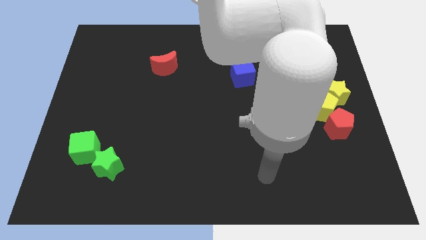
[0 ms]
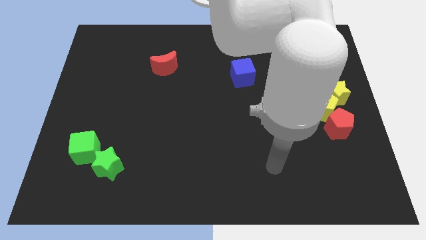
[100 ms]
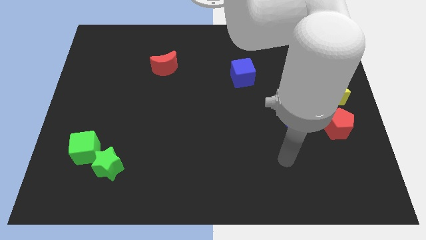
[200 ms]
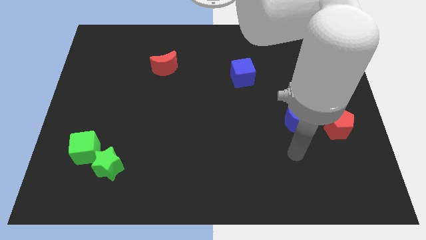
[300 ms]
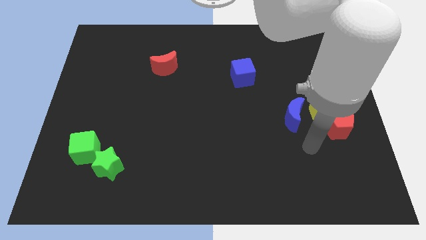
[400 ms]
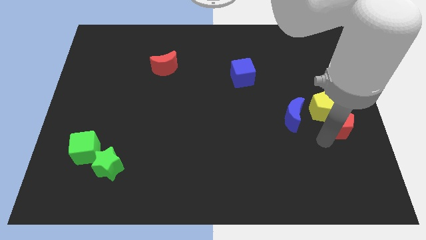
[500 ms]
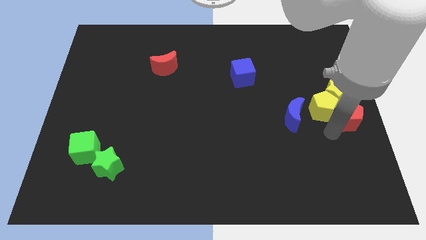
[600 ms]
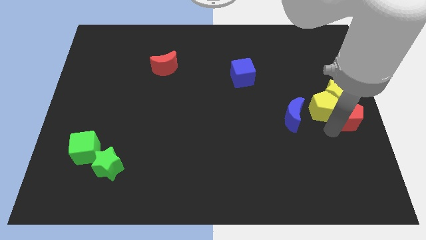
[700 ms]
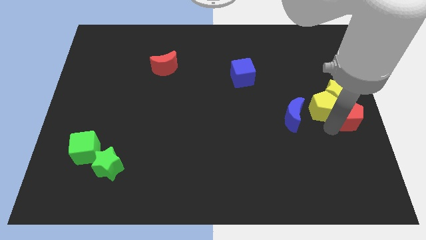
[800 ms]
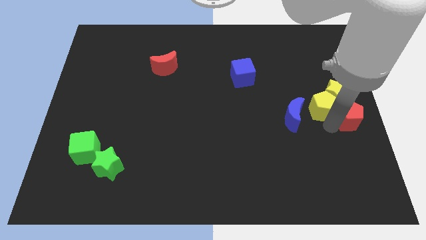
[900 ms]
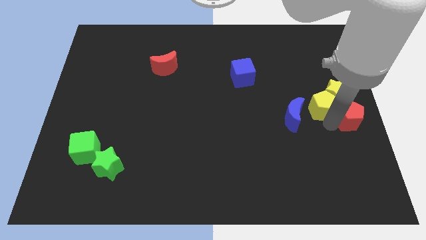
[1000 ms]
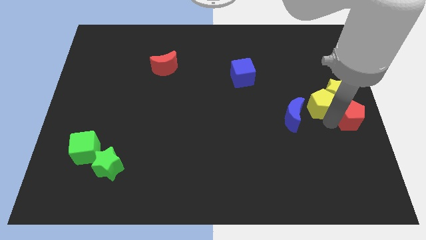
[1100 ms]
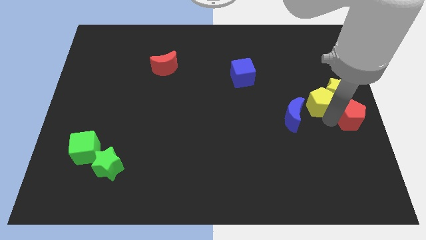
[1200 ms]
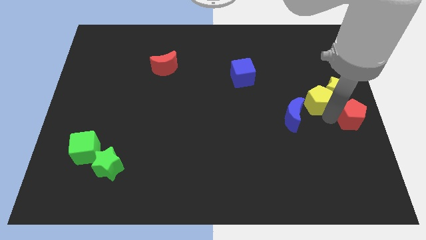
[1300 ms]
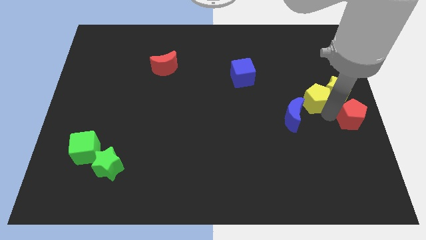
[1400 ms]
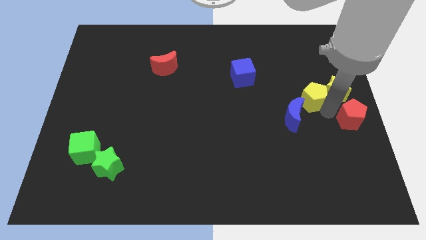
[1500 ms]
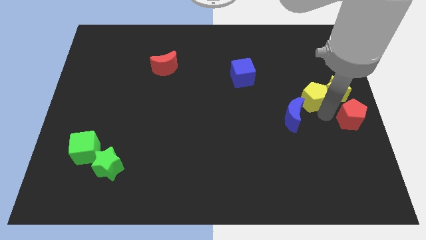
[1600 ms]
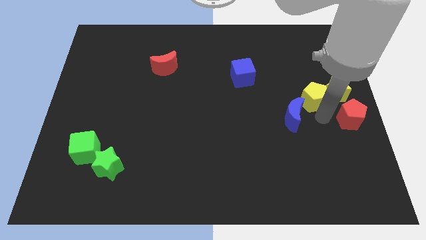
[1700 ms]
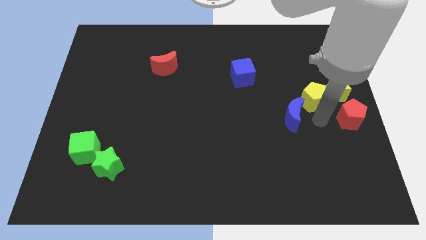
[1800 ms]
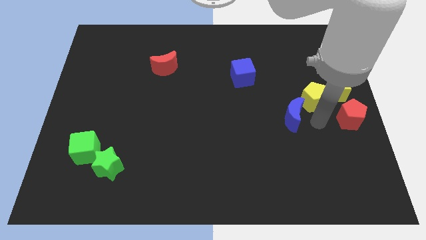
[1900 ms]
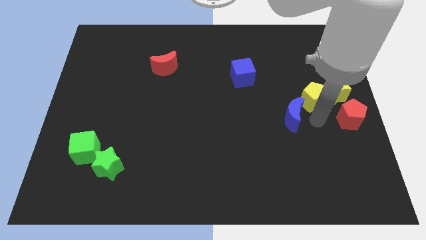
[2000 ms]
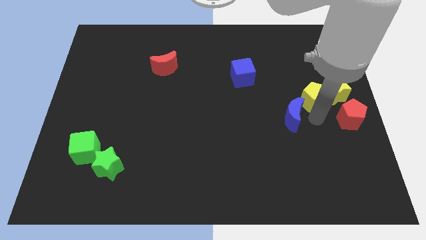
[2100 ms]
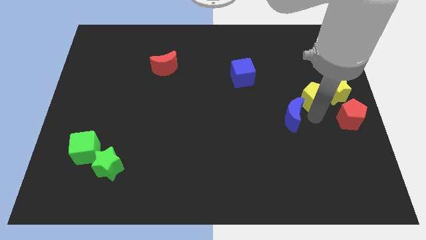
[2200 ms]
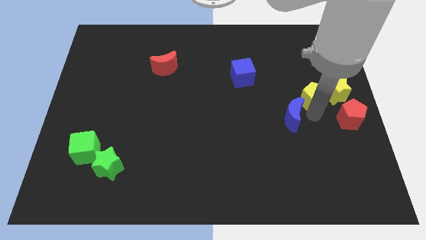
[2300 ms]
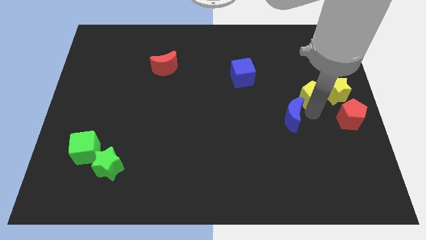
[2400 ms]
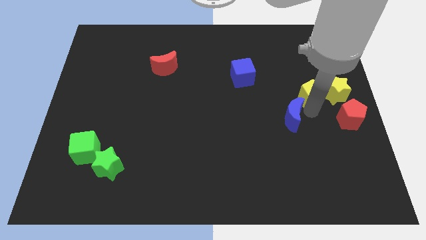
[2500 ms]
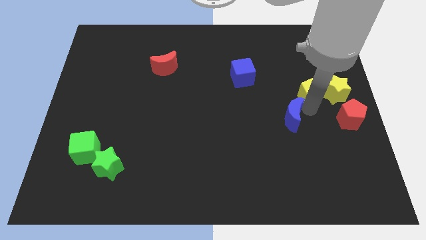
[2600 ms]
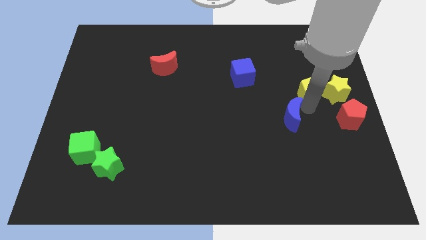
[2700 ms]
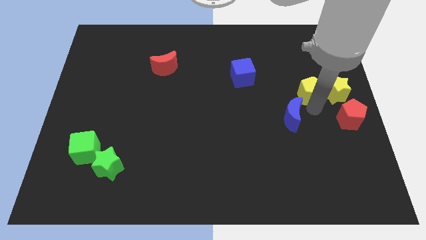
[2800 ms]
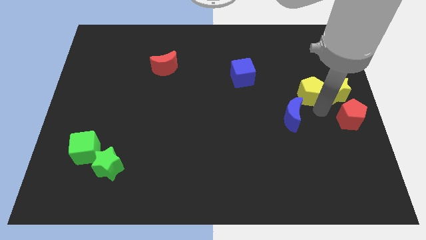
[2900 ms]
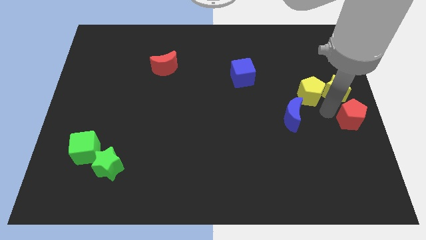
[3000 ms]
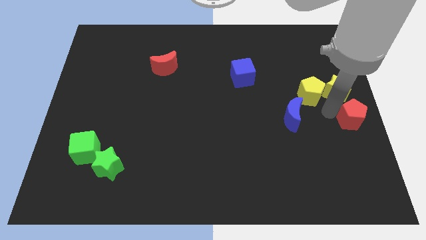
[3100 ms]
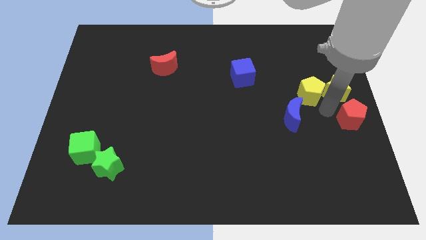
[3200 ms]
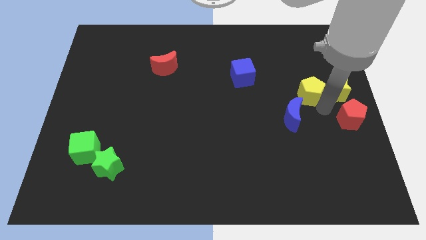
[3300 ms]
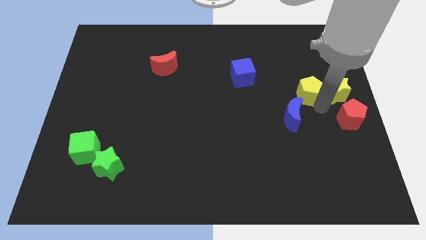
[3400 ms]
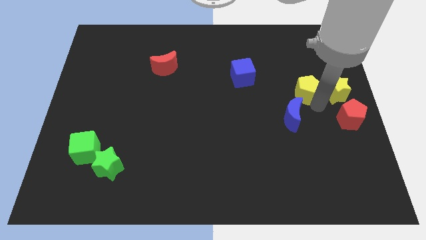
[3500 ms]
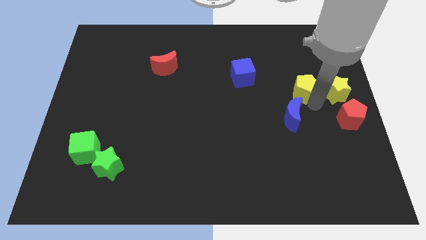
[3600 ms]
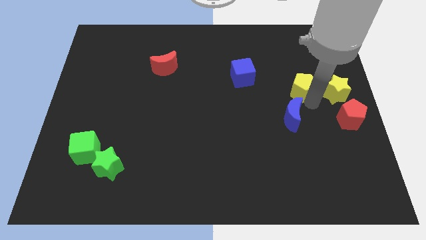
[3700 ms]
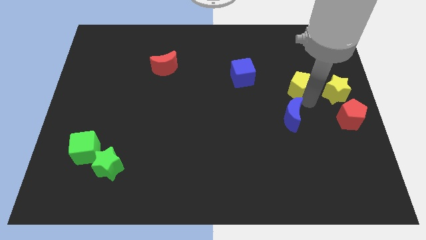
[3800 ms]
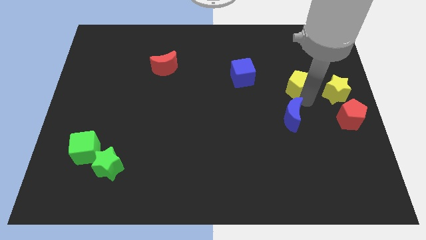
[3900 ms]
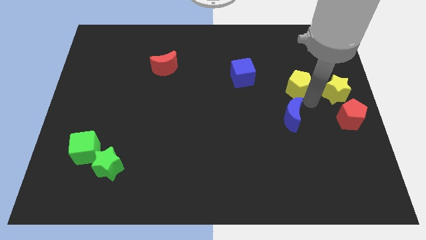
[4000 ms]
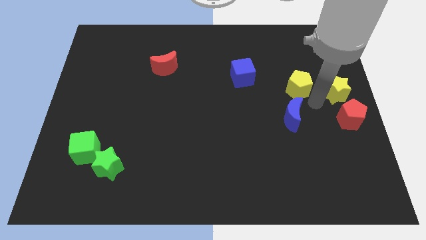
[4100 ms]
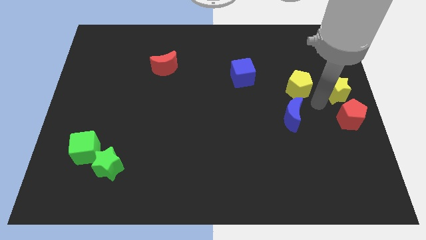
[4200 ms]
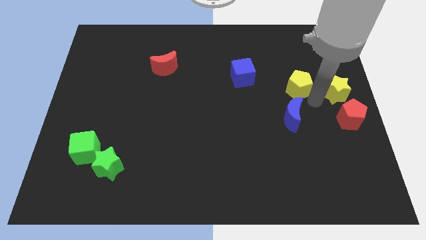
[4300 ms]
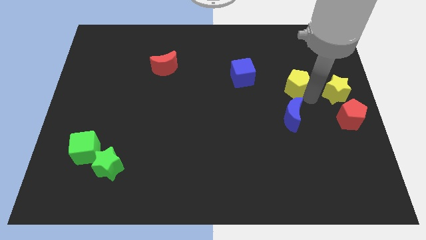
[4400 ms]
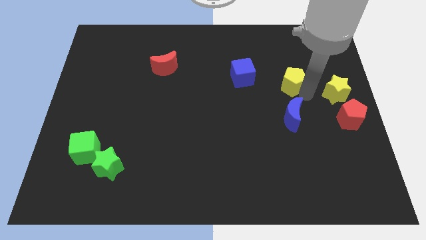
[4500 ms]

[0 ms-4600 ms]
move the yellow pentagon away from the yellow star, red pentagon, and blue moon

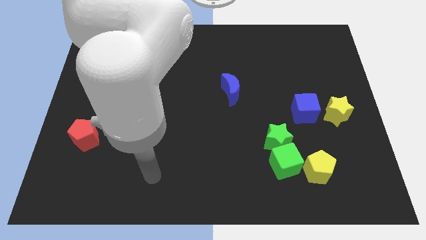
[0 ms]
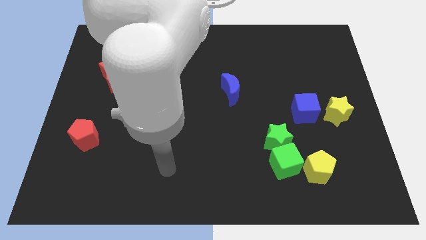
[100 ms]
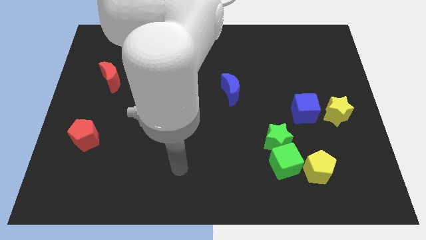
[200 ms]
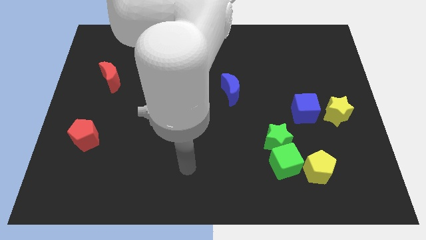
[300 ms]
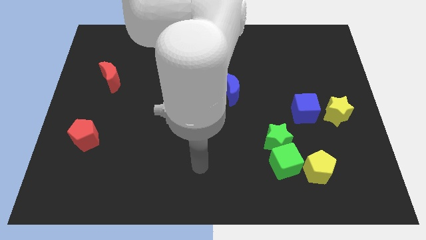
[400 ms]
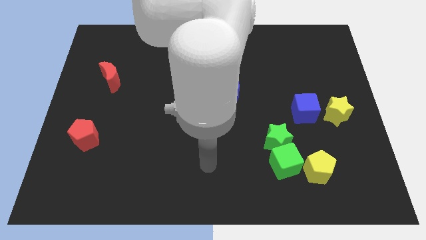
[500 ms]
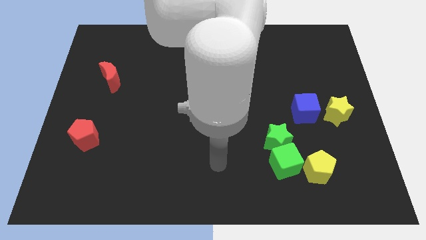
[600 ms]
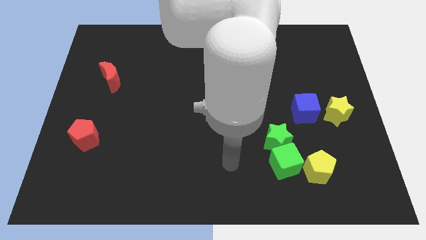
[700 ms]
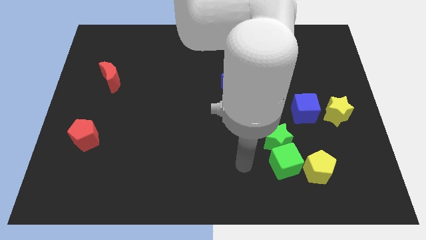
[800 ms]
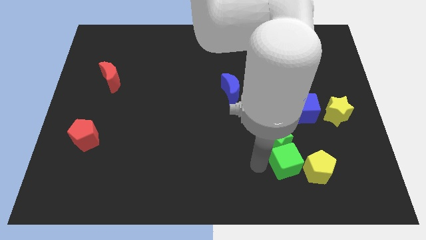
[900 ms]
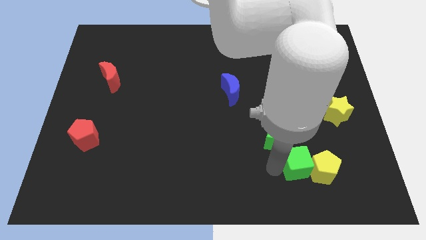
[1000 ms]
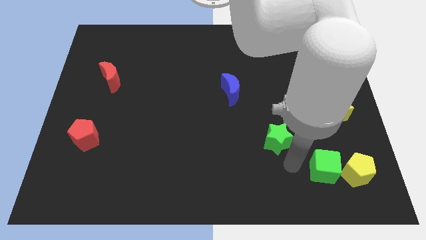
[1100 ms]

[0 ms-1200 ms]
pull the green star apart from the green cube

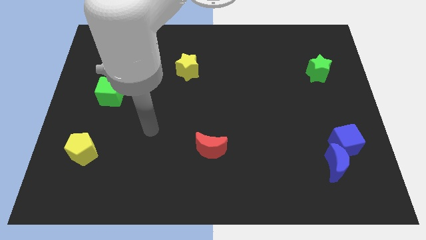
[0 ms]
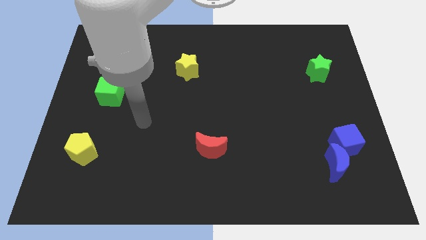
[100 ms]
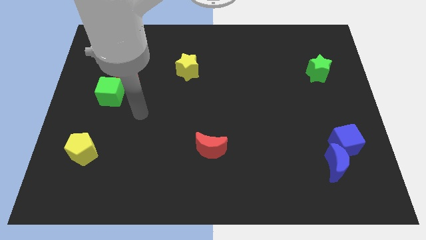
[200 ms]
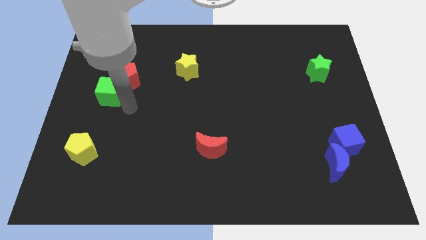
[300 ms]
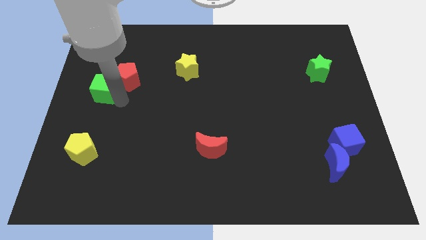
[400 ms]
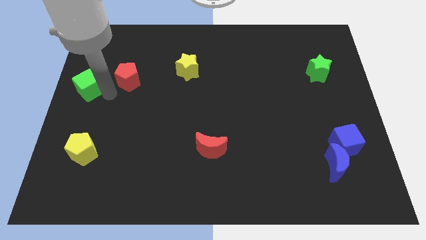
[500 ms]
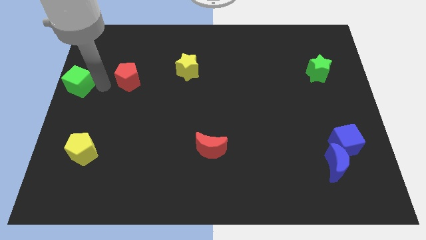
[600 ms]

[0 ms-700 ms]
move the red pentagon away from the green cube

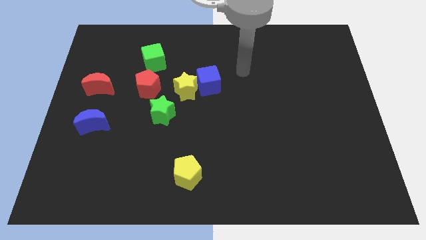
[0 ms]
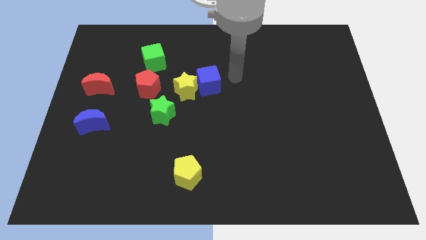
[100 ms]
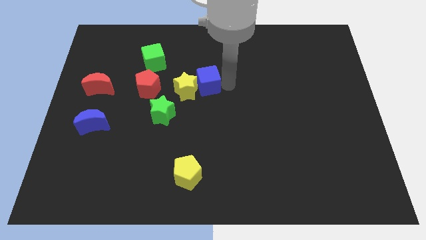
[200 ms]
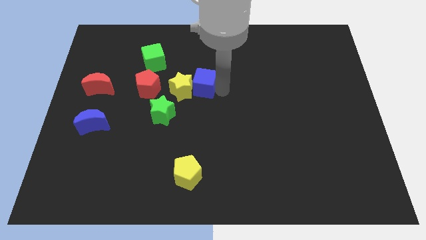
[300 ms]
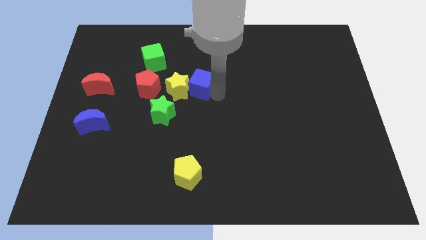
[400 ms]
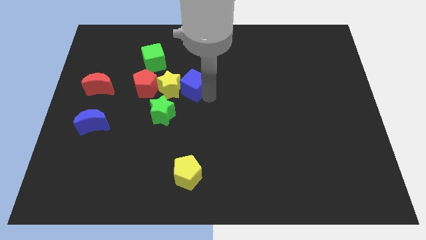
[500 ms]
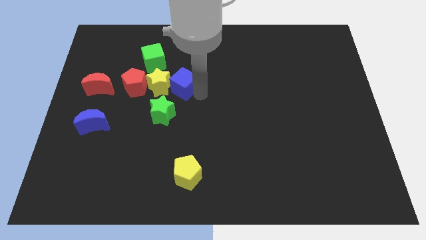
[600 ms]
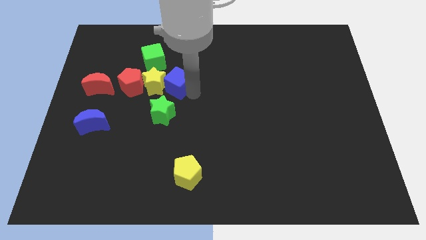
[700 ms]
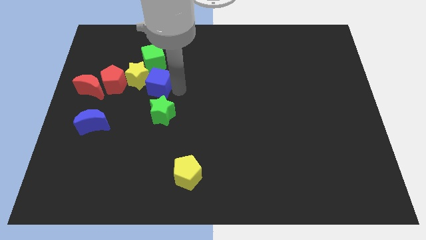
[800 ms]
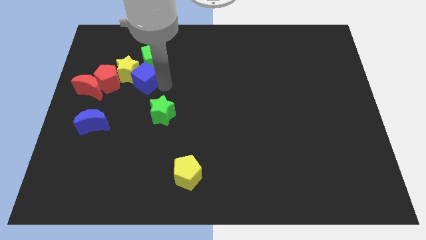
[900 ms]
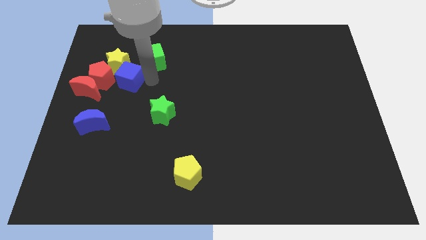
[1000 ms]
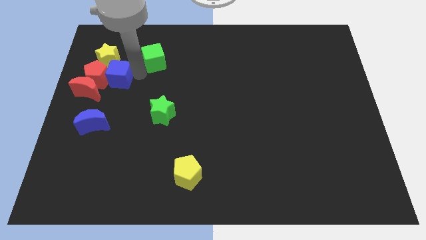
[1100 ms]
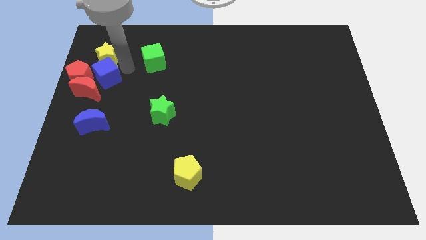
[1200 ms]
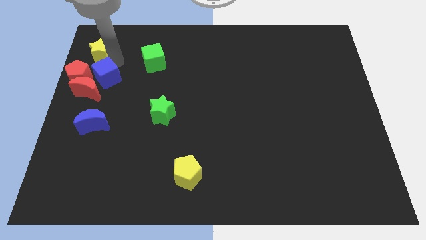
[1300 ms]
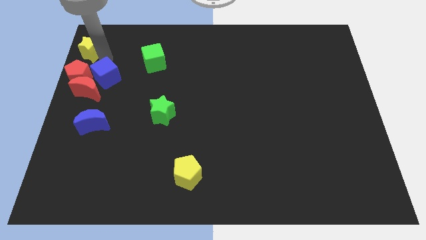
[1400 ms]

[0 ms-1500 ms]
separate the blue cube from the yellow star

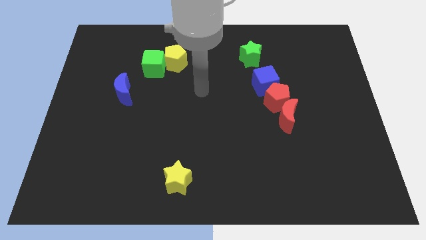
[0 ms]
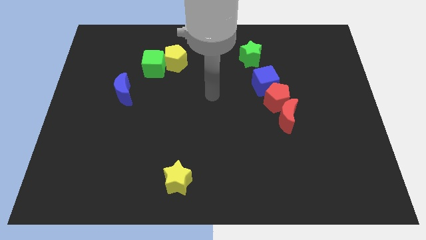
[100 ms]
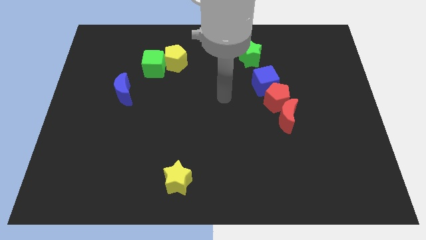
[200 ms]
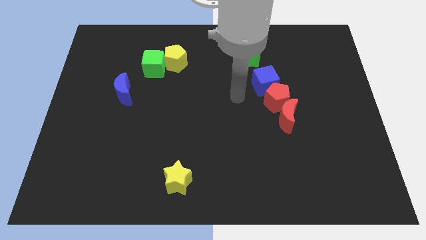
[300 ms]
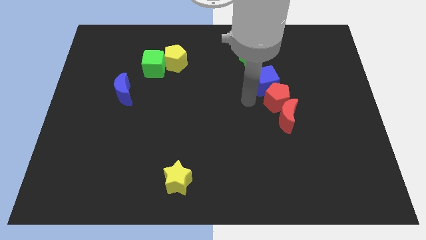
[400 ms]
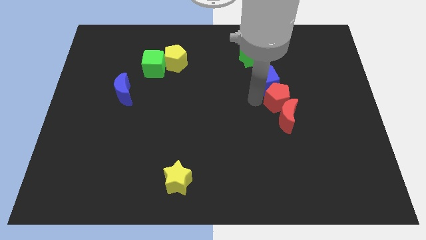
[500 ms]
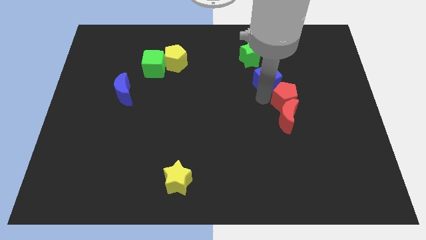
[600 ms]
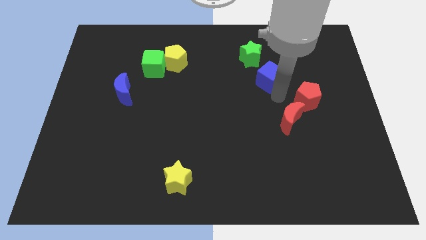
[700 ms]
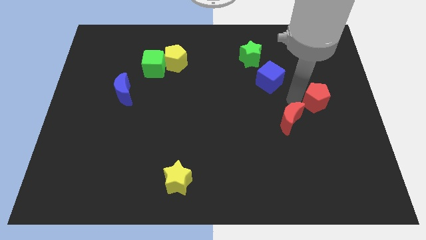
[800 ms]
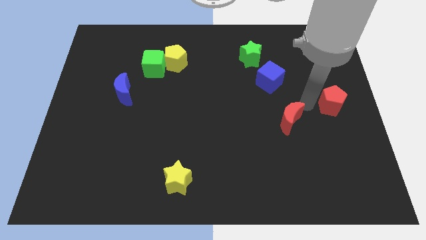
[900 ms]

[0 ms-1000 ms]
separate the red moon from the red pentagon

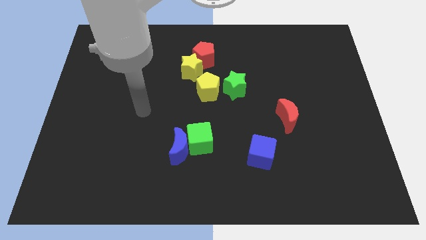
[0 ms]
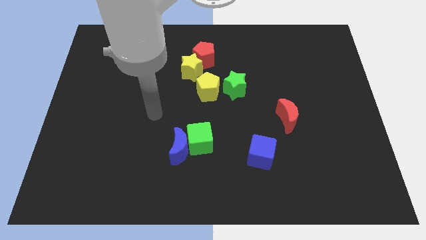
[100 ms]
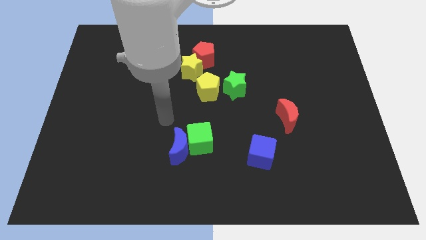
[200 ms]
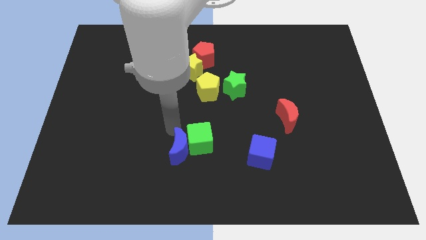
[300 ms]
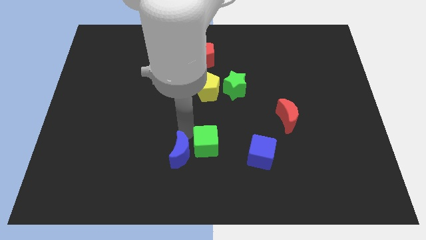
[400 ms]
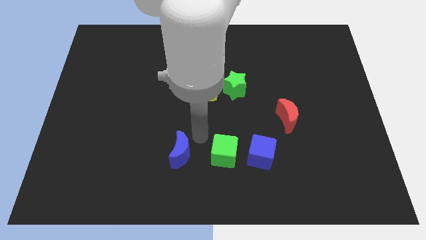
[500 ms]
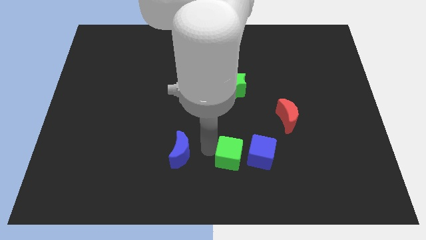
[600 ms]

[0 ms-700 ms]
move the blue moon away from the green cube
